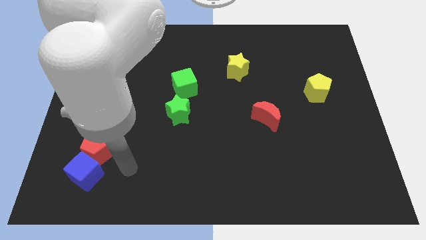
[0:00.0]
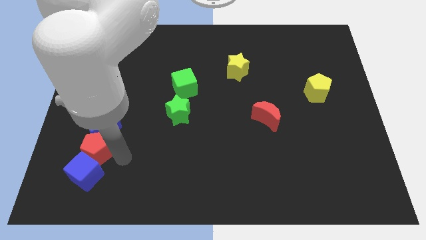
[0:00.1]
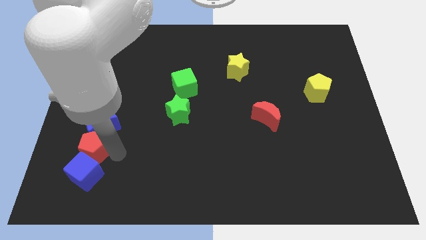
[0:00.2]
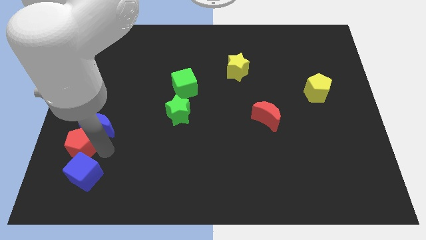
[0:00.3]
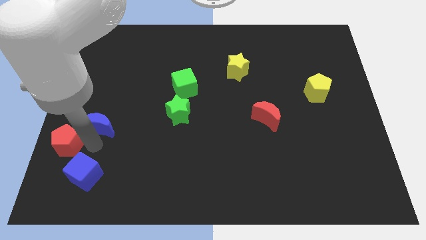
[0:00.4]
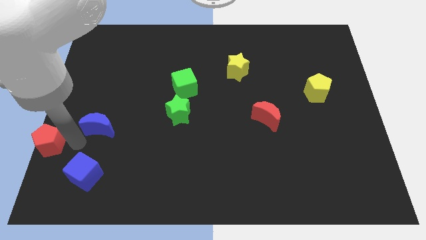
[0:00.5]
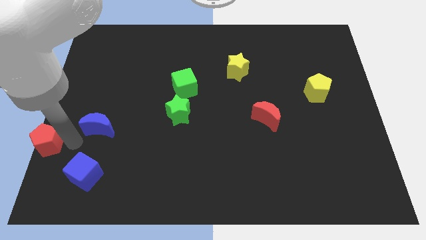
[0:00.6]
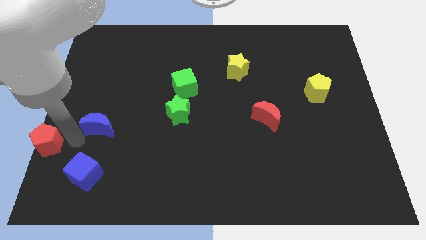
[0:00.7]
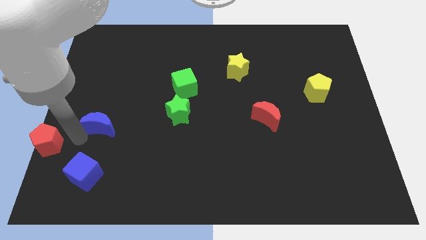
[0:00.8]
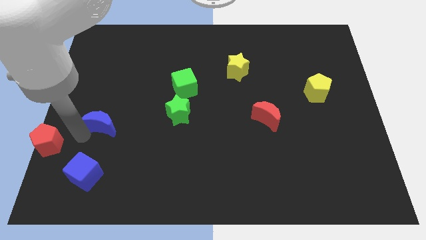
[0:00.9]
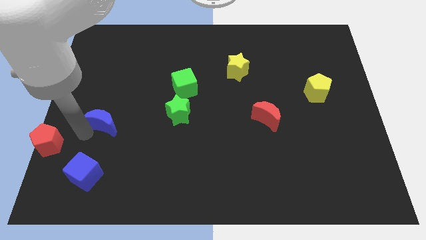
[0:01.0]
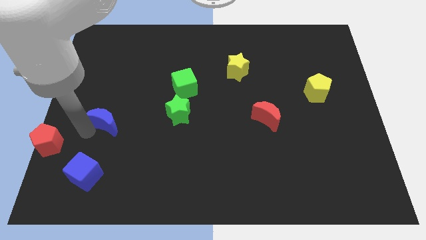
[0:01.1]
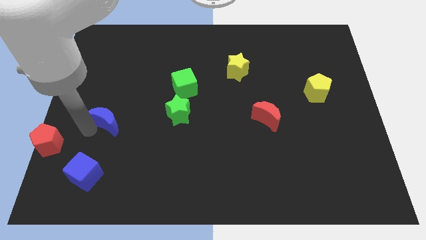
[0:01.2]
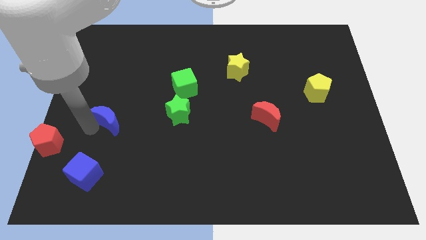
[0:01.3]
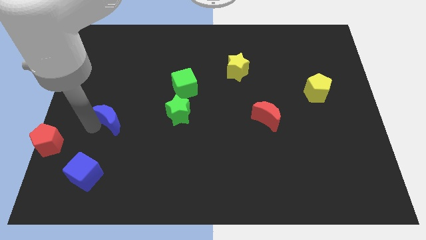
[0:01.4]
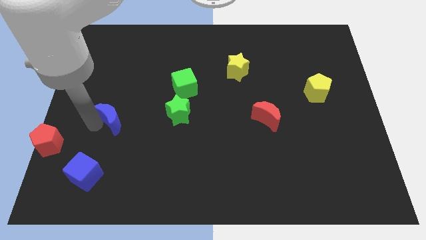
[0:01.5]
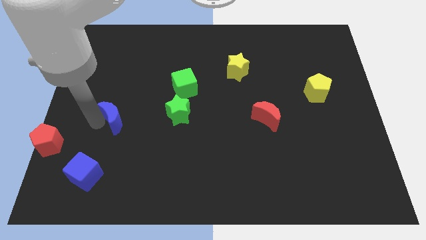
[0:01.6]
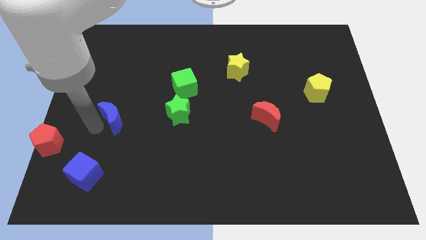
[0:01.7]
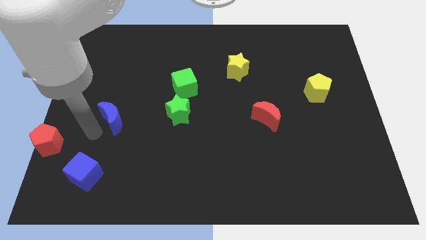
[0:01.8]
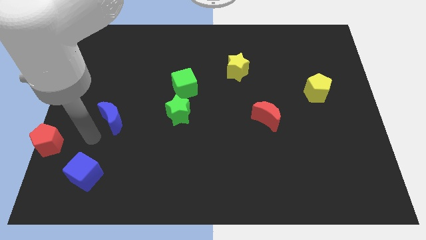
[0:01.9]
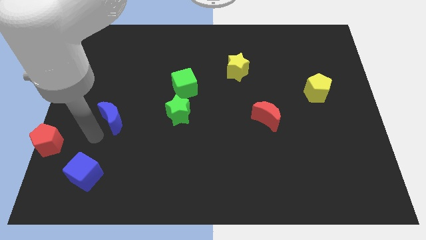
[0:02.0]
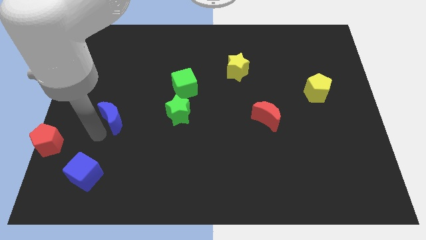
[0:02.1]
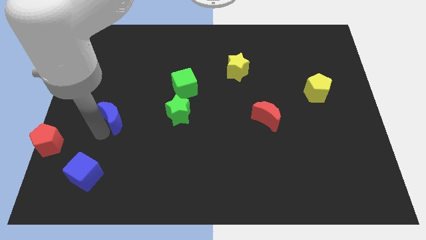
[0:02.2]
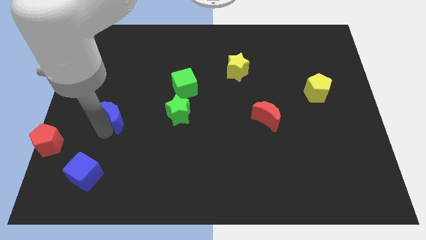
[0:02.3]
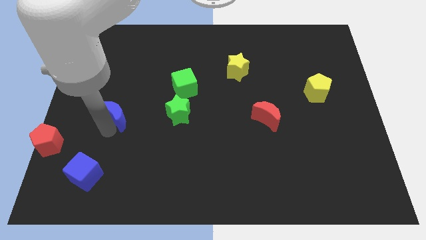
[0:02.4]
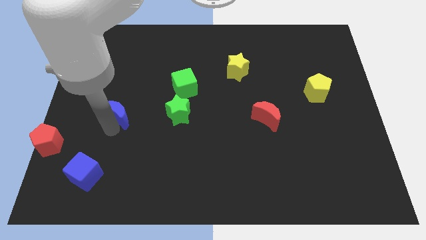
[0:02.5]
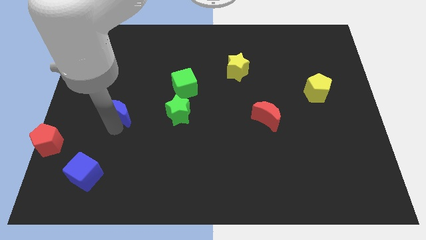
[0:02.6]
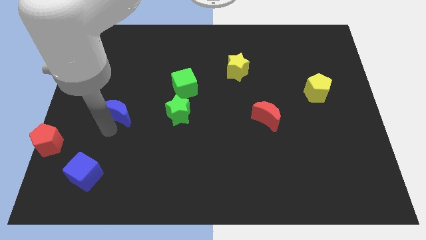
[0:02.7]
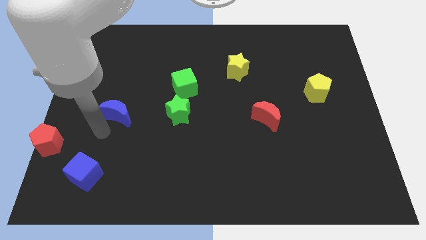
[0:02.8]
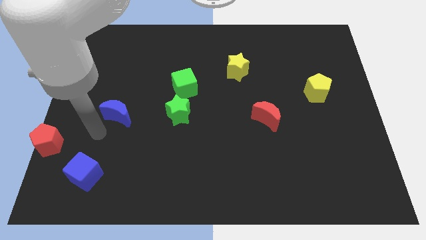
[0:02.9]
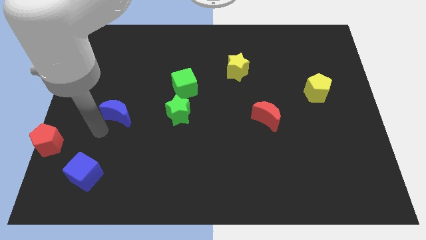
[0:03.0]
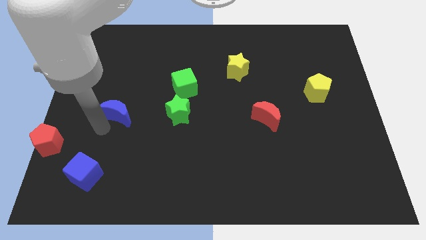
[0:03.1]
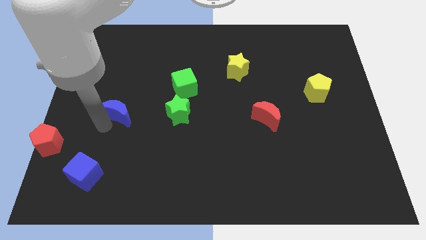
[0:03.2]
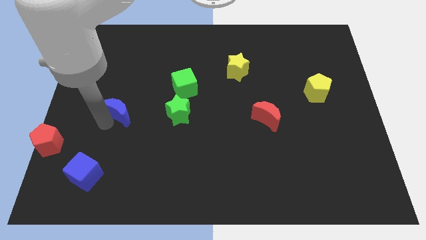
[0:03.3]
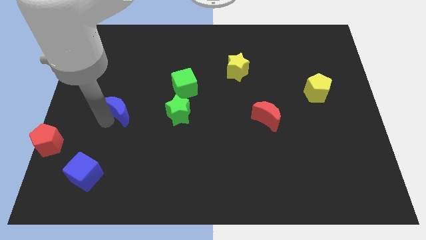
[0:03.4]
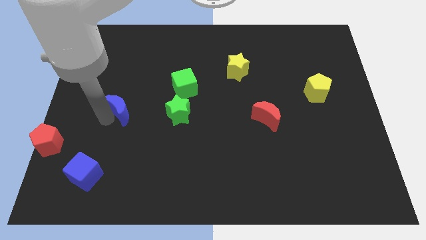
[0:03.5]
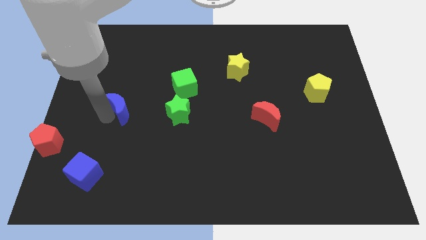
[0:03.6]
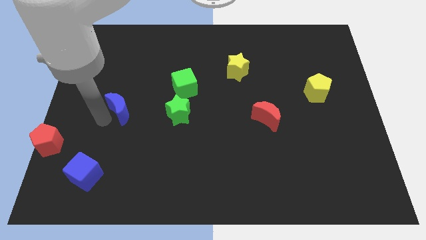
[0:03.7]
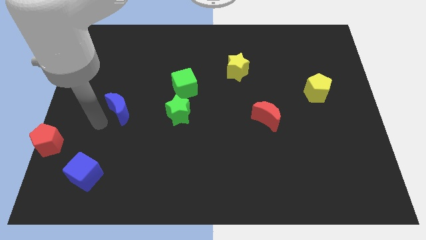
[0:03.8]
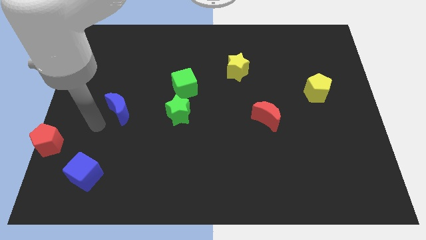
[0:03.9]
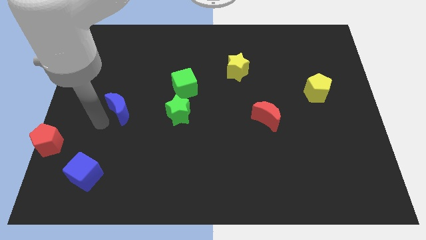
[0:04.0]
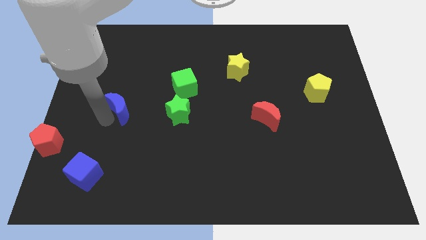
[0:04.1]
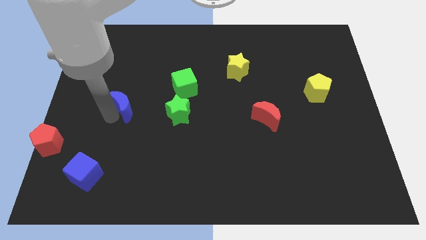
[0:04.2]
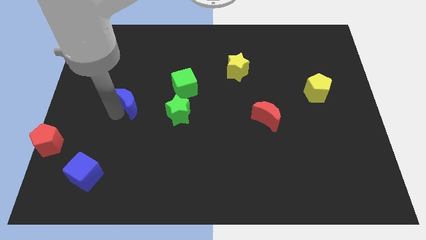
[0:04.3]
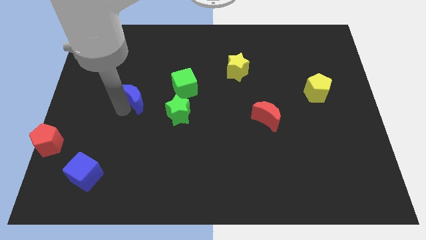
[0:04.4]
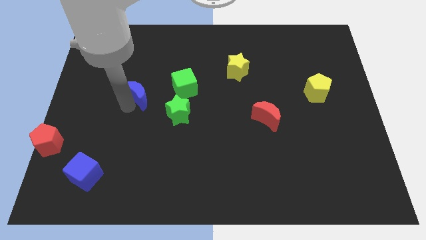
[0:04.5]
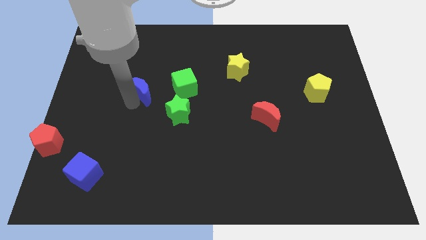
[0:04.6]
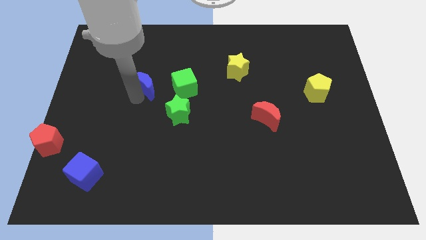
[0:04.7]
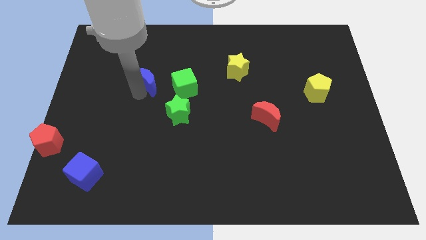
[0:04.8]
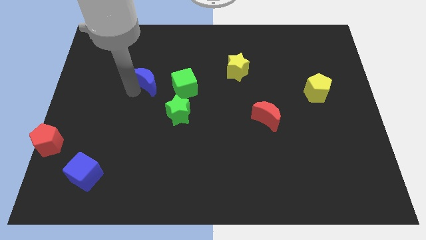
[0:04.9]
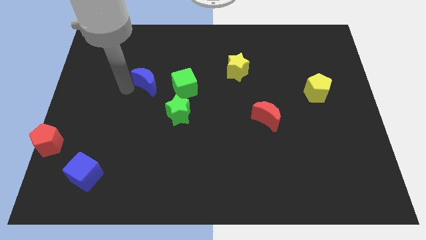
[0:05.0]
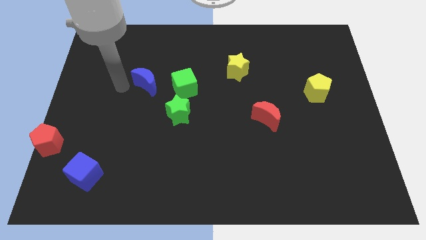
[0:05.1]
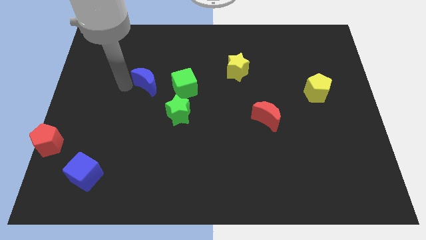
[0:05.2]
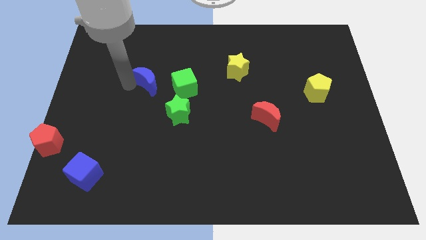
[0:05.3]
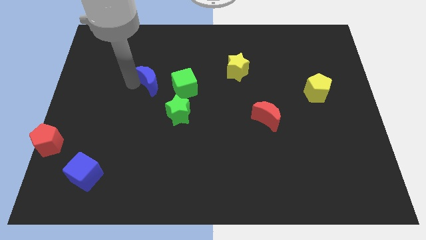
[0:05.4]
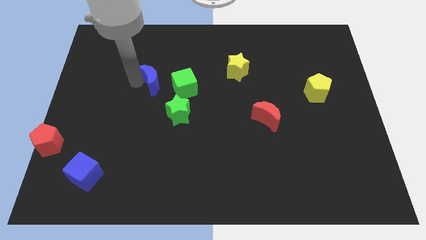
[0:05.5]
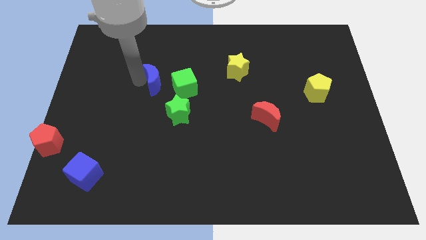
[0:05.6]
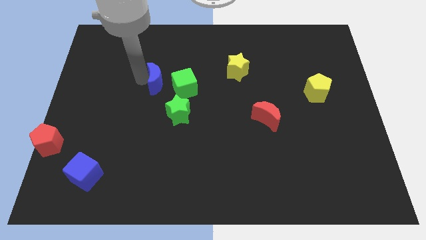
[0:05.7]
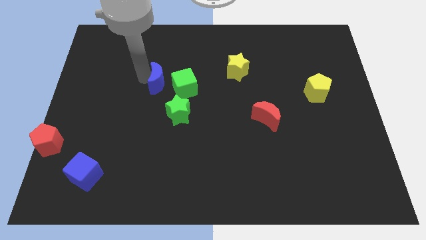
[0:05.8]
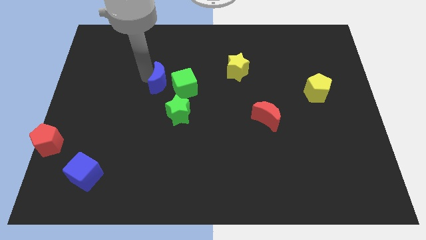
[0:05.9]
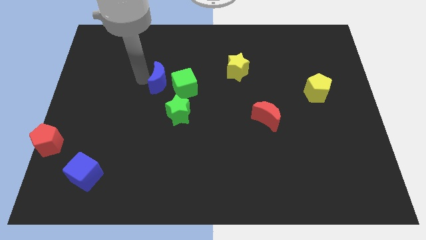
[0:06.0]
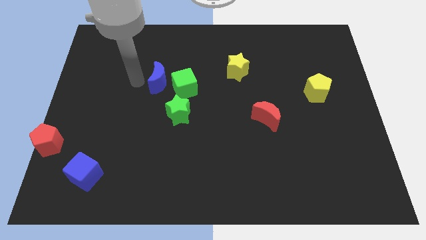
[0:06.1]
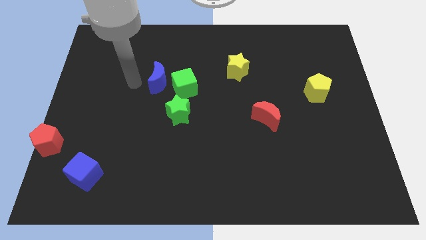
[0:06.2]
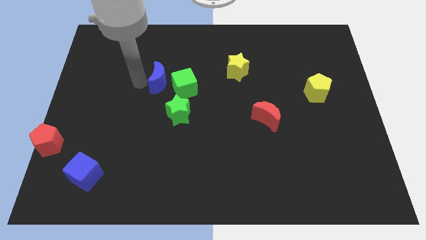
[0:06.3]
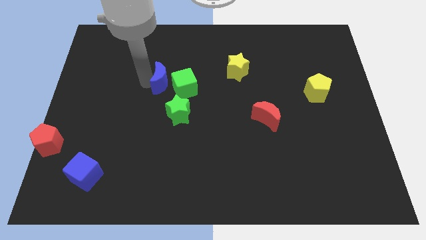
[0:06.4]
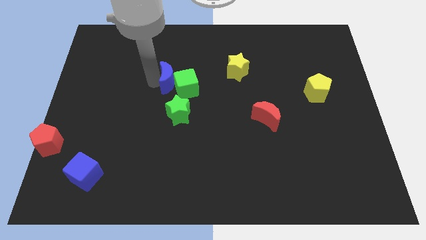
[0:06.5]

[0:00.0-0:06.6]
slide the blue moon to the top of the green star

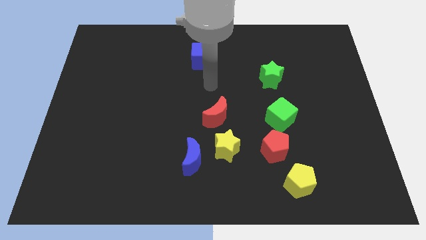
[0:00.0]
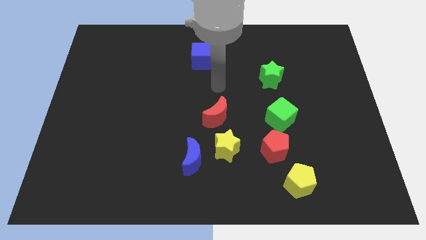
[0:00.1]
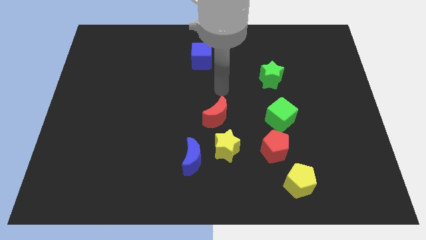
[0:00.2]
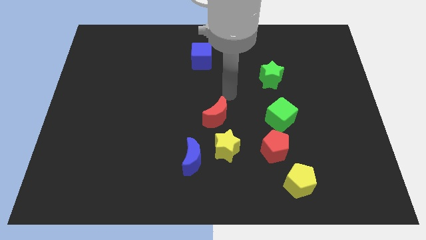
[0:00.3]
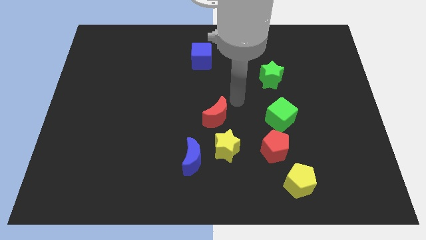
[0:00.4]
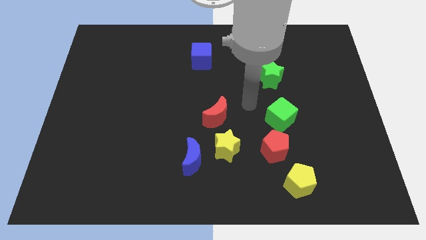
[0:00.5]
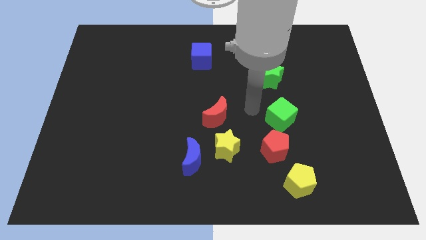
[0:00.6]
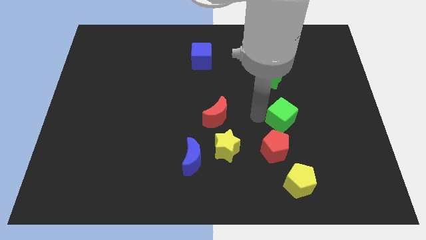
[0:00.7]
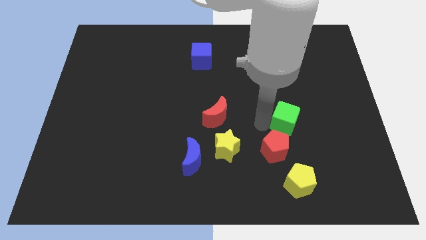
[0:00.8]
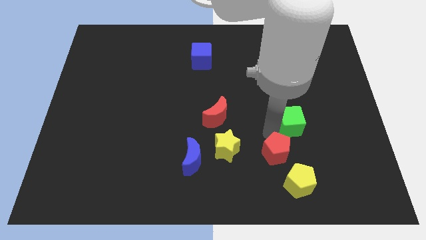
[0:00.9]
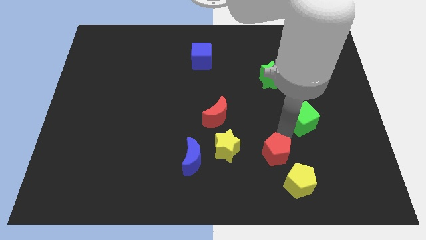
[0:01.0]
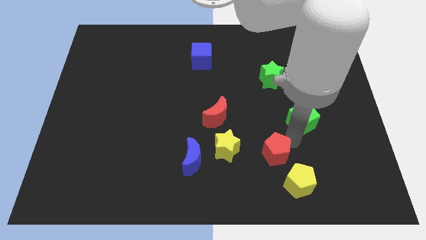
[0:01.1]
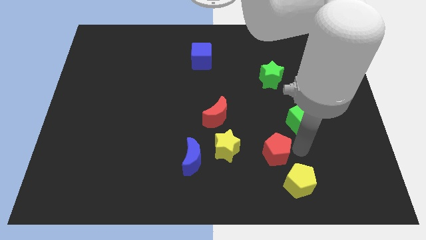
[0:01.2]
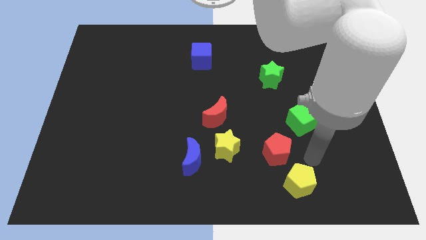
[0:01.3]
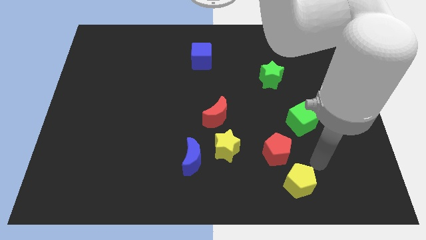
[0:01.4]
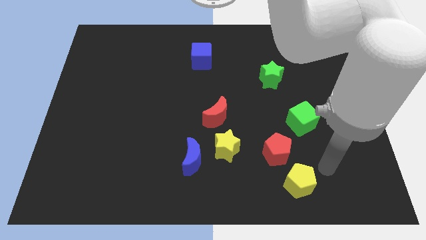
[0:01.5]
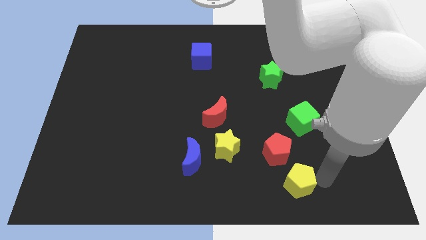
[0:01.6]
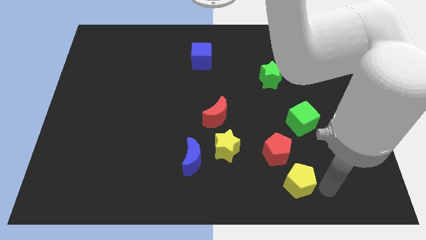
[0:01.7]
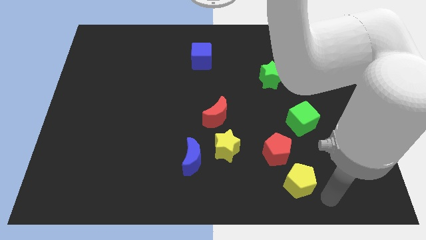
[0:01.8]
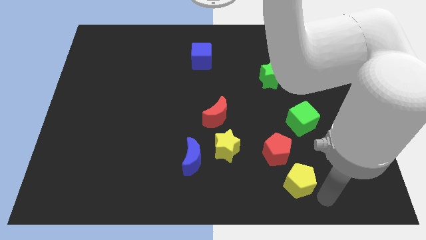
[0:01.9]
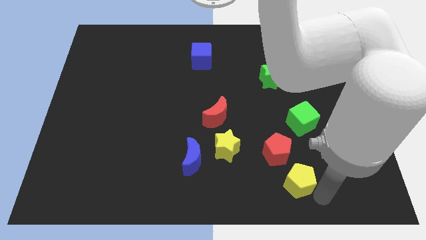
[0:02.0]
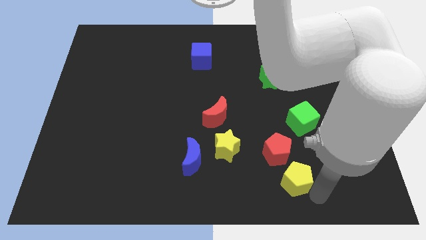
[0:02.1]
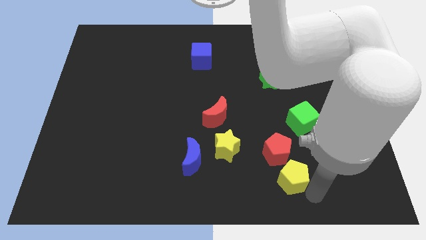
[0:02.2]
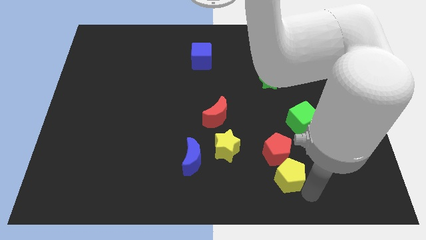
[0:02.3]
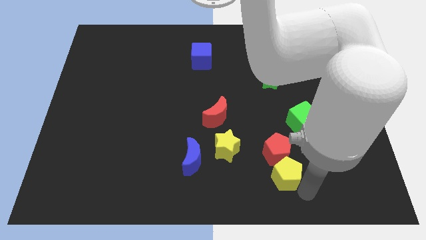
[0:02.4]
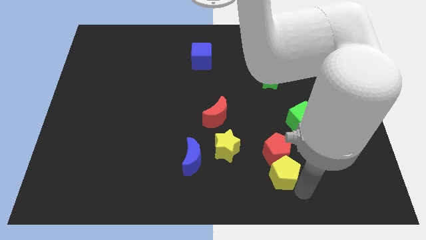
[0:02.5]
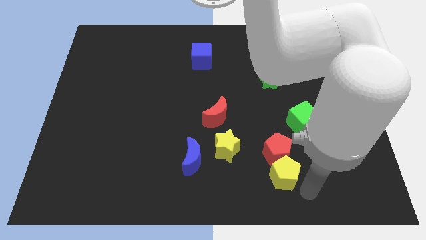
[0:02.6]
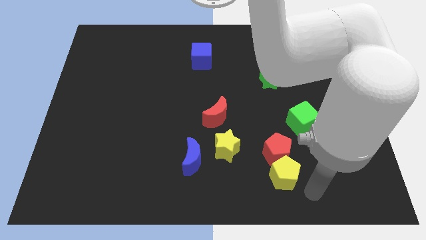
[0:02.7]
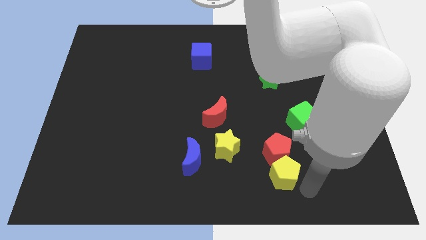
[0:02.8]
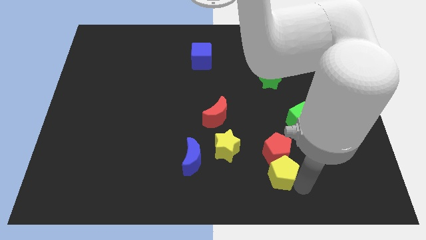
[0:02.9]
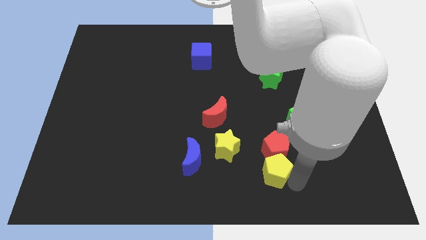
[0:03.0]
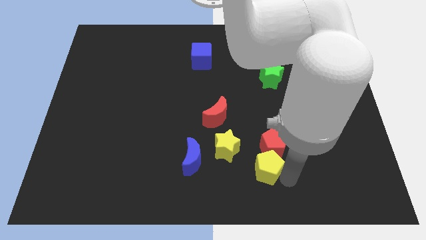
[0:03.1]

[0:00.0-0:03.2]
push the yellow pentagon just right of the blue moon
